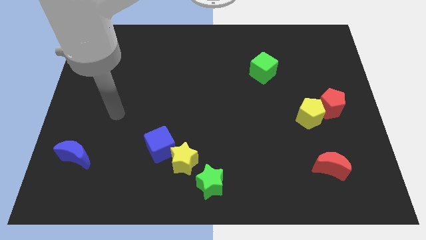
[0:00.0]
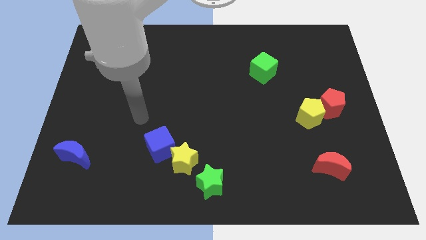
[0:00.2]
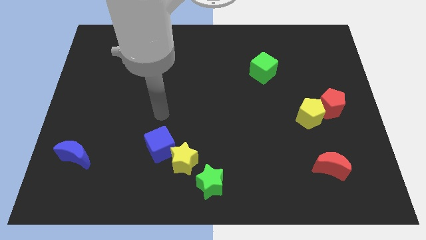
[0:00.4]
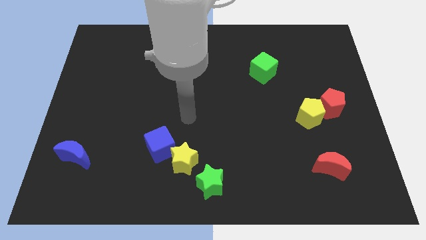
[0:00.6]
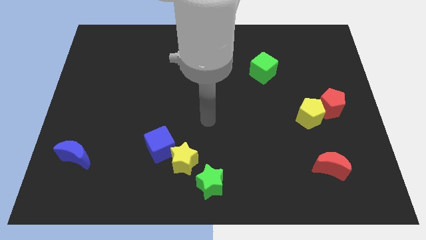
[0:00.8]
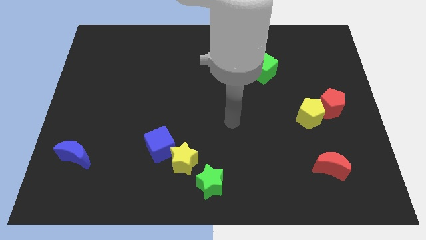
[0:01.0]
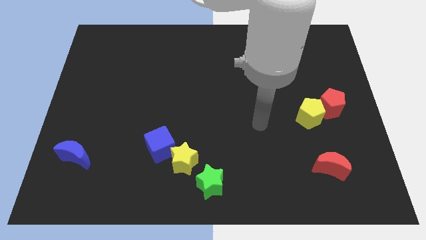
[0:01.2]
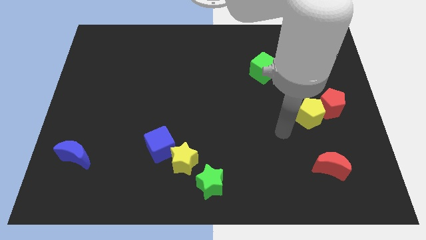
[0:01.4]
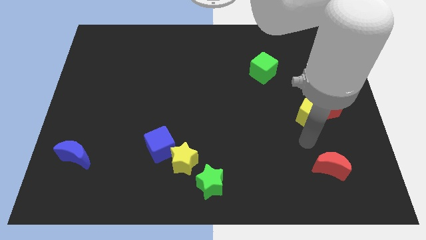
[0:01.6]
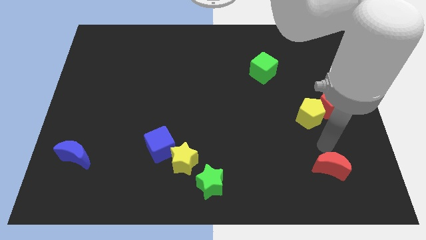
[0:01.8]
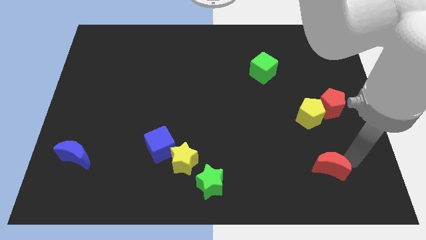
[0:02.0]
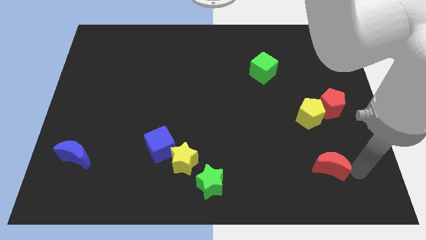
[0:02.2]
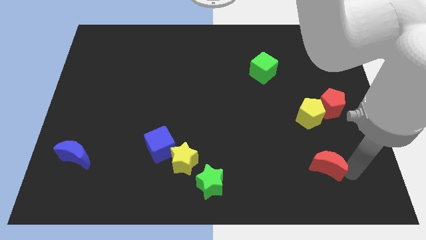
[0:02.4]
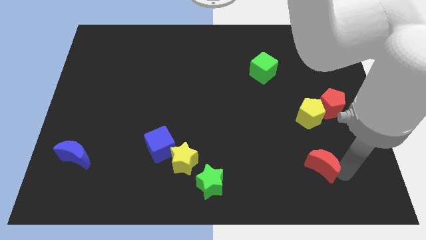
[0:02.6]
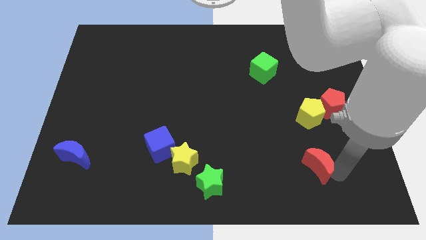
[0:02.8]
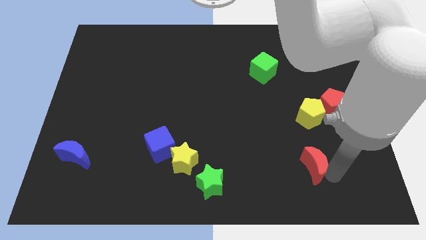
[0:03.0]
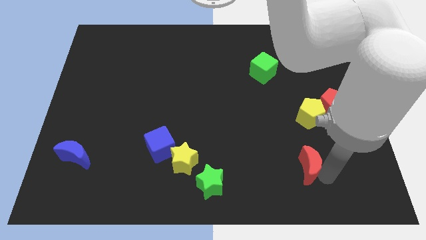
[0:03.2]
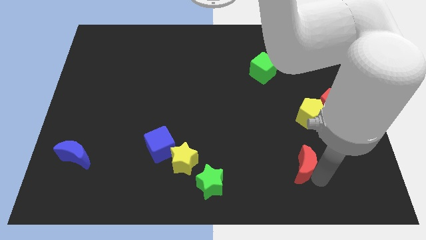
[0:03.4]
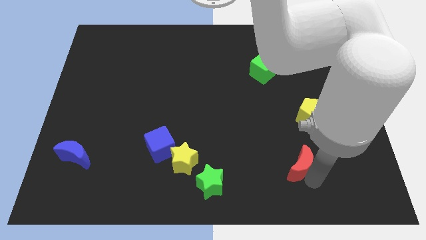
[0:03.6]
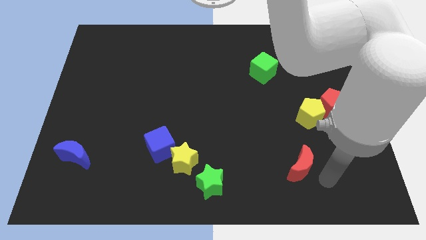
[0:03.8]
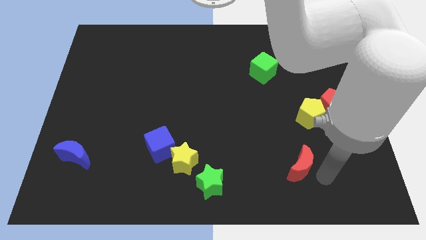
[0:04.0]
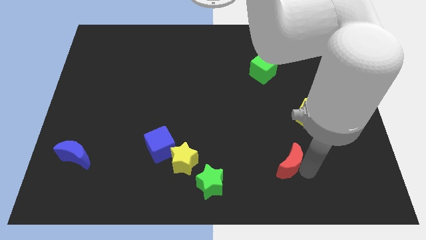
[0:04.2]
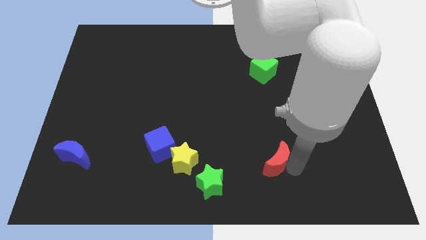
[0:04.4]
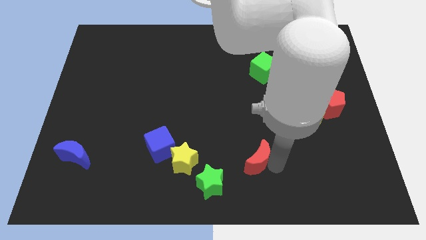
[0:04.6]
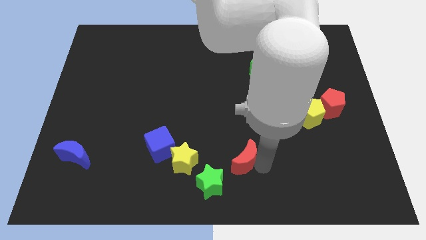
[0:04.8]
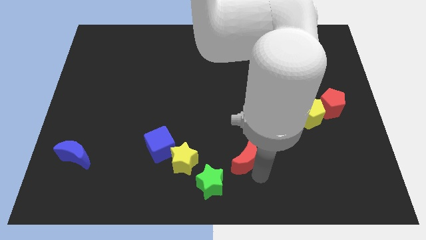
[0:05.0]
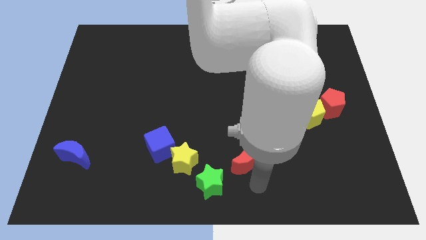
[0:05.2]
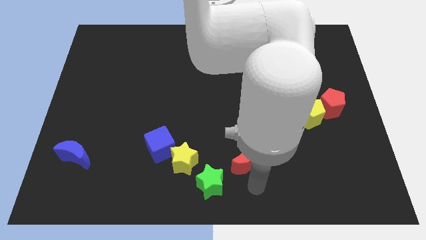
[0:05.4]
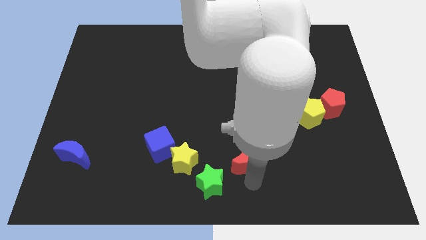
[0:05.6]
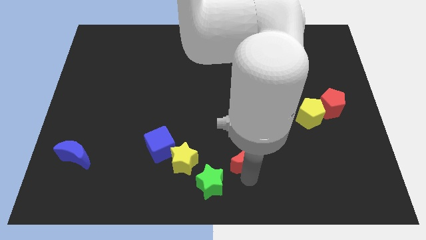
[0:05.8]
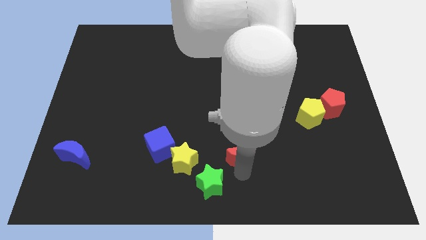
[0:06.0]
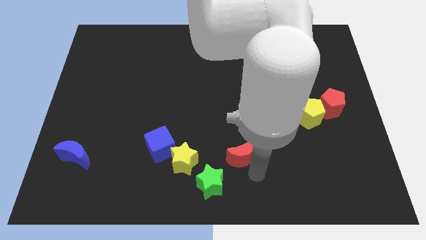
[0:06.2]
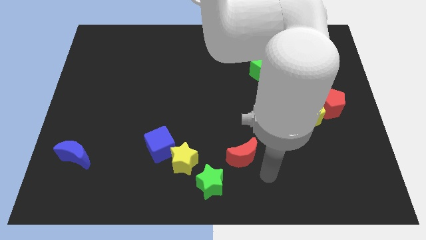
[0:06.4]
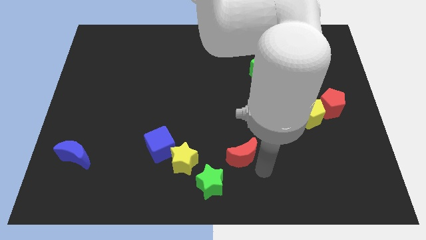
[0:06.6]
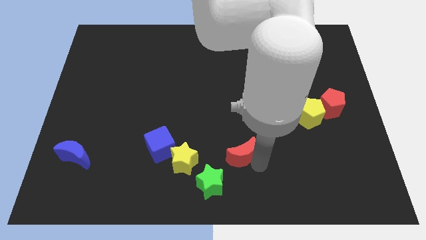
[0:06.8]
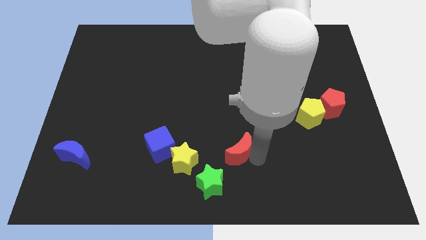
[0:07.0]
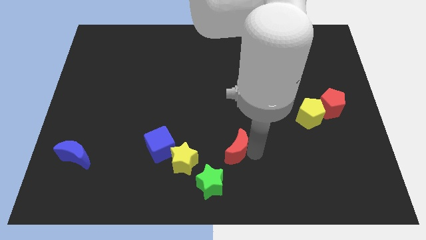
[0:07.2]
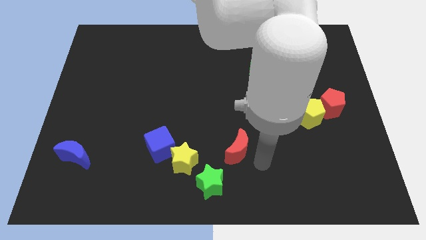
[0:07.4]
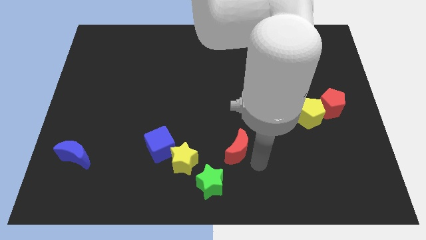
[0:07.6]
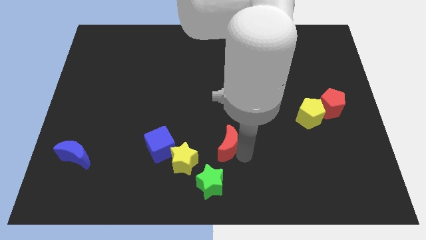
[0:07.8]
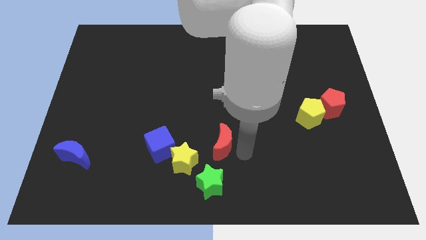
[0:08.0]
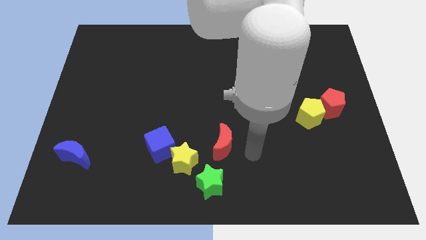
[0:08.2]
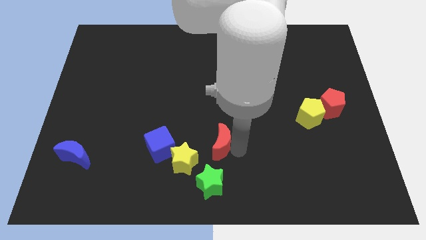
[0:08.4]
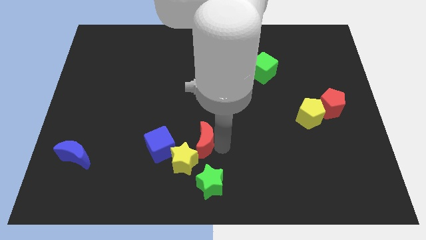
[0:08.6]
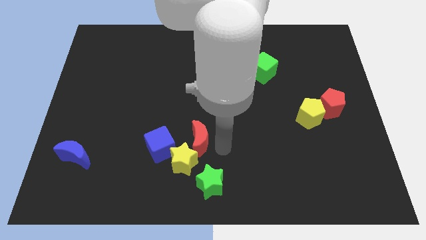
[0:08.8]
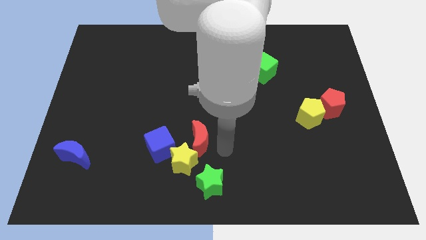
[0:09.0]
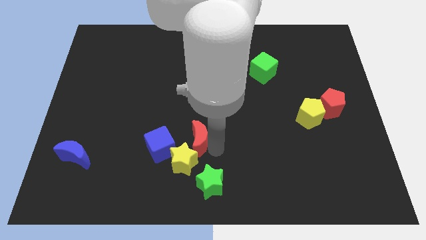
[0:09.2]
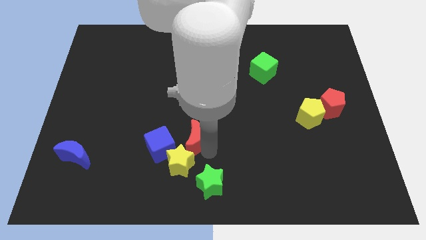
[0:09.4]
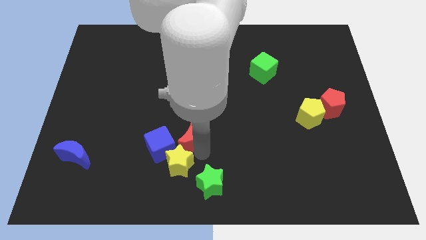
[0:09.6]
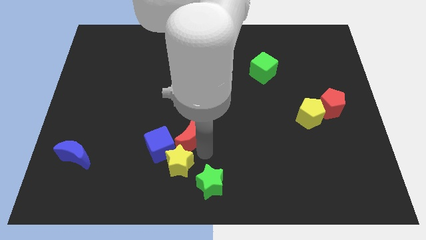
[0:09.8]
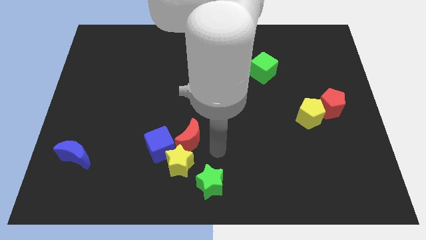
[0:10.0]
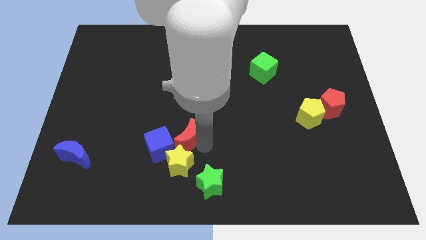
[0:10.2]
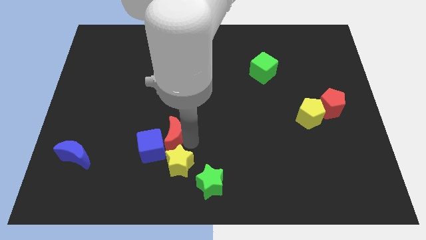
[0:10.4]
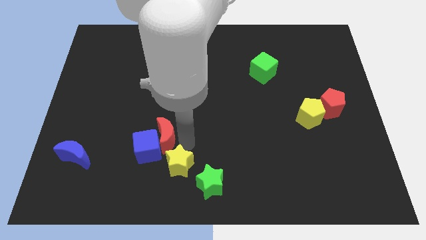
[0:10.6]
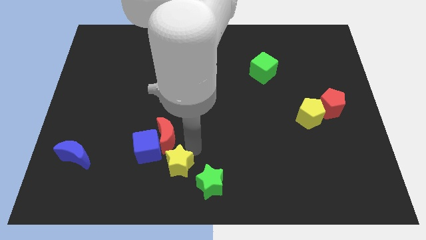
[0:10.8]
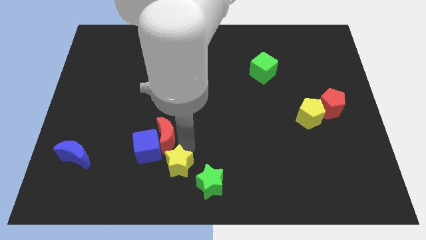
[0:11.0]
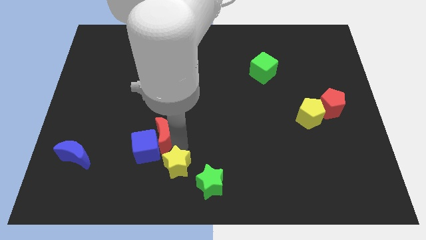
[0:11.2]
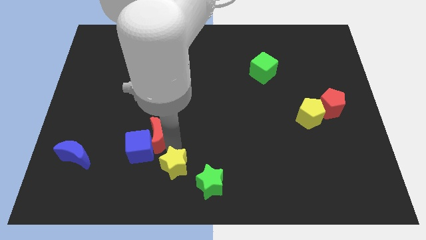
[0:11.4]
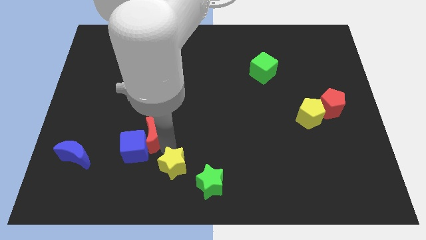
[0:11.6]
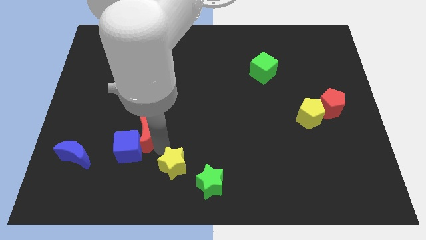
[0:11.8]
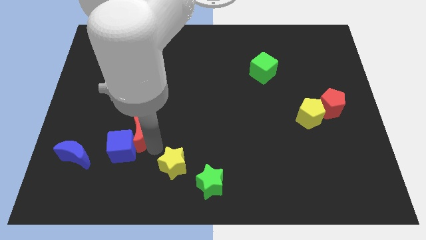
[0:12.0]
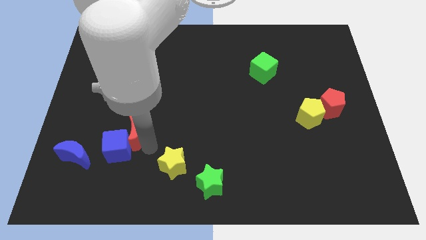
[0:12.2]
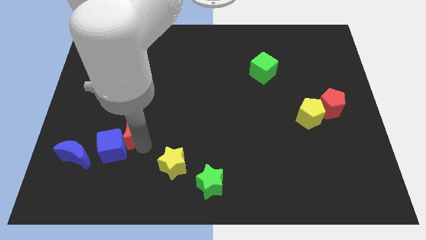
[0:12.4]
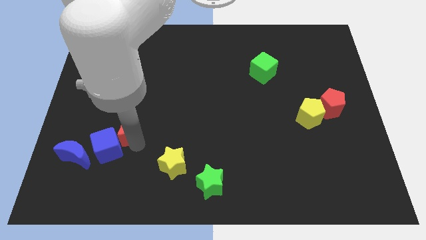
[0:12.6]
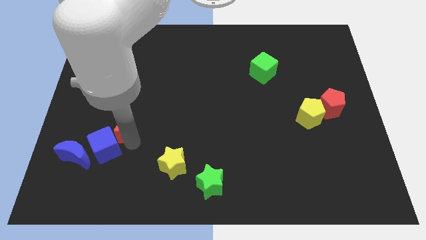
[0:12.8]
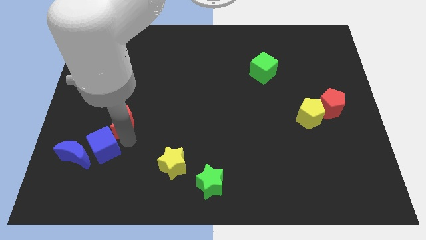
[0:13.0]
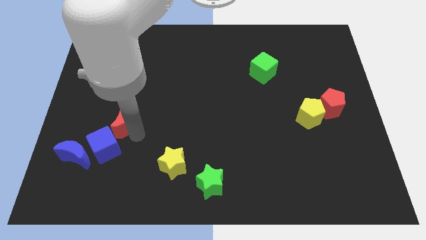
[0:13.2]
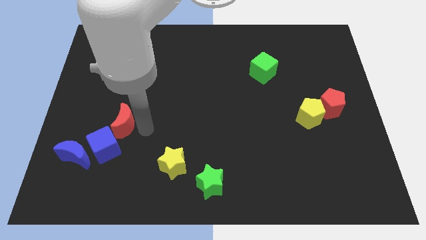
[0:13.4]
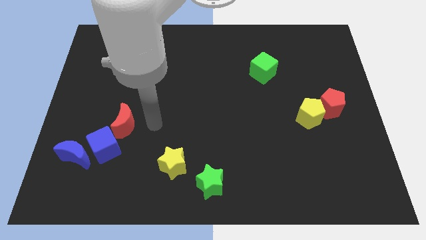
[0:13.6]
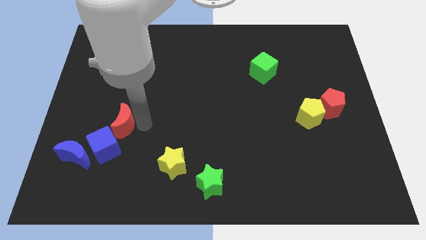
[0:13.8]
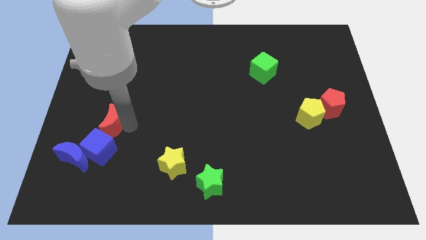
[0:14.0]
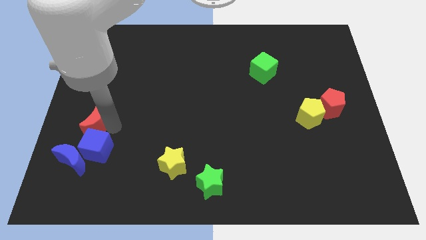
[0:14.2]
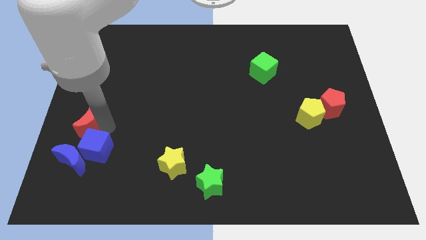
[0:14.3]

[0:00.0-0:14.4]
move the red moon to the center left
